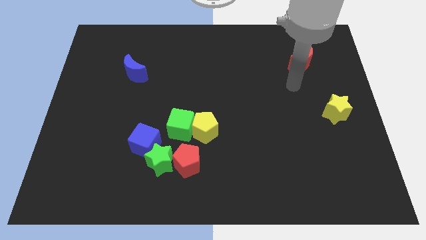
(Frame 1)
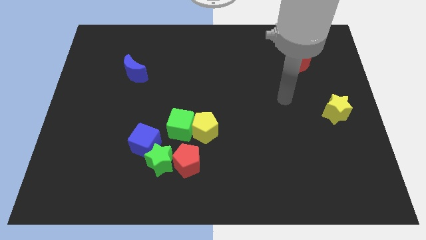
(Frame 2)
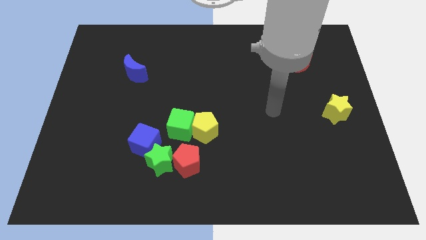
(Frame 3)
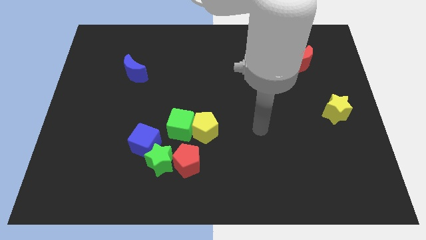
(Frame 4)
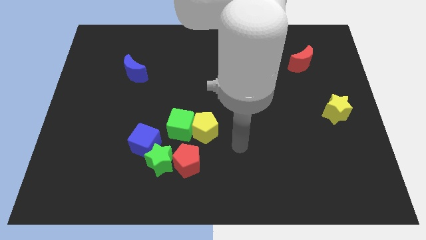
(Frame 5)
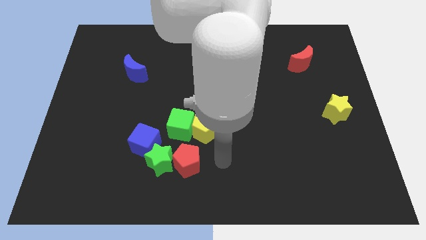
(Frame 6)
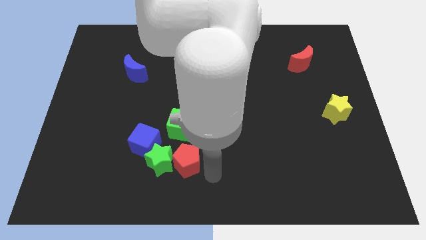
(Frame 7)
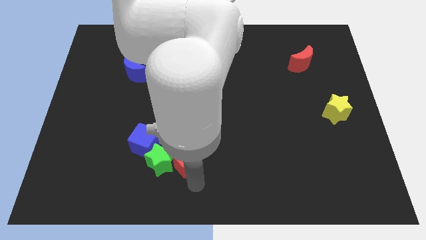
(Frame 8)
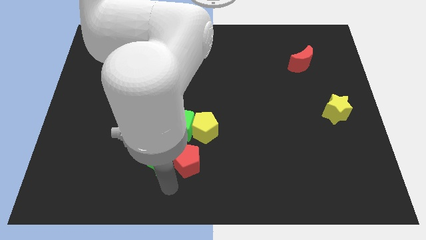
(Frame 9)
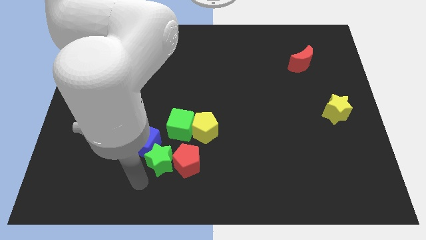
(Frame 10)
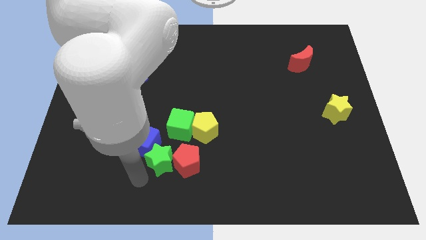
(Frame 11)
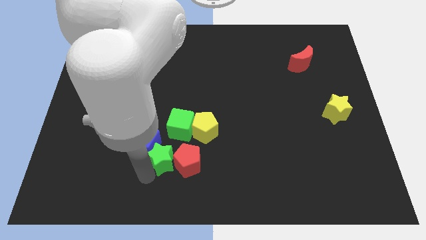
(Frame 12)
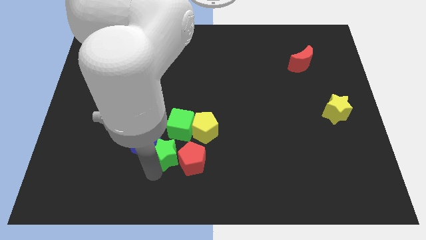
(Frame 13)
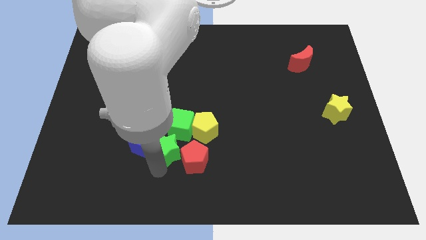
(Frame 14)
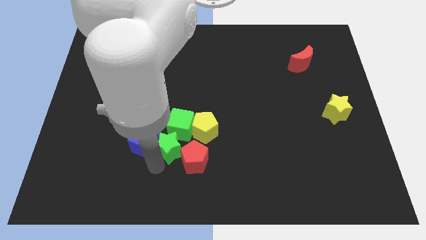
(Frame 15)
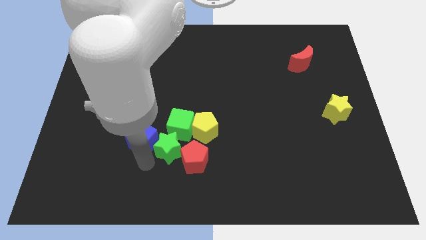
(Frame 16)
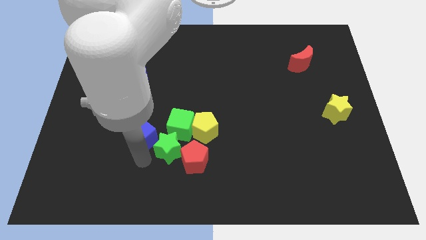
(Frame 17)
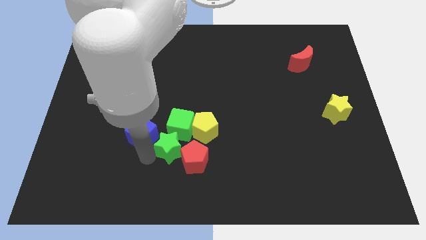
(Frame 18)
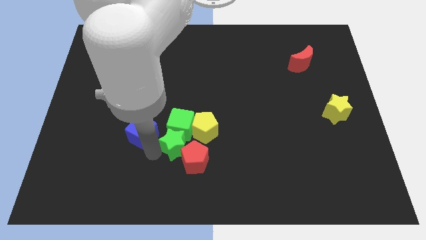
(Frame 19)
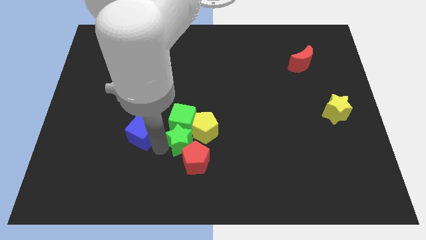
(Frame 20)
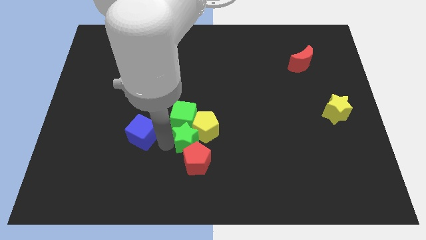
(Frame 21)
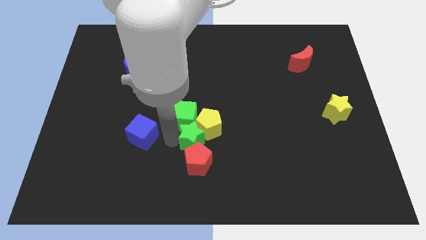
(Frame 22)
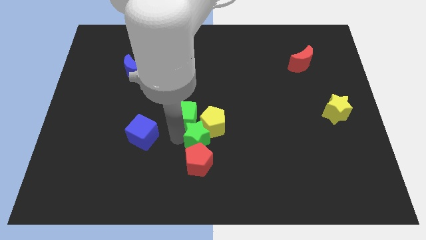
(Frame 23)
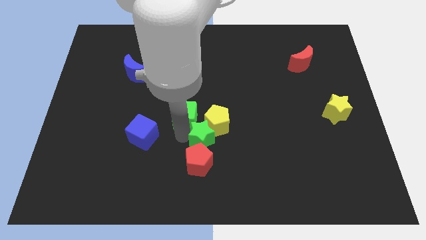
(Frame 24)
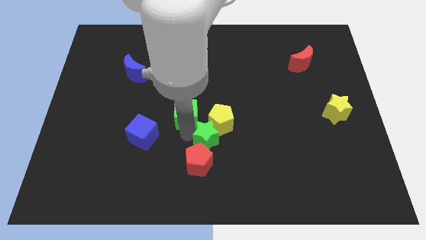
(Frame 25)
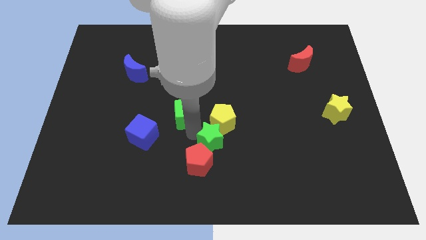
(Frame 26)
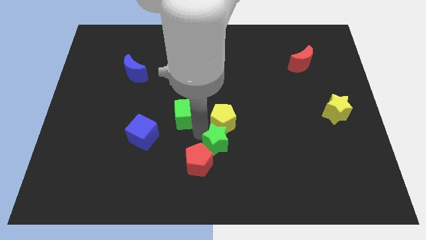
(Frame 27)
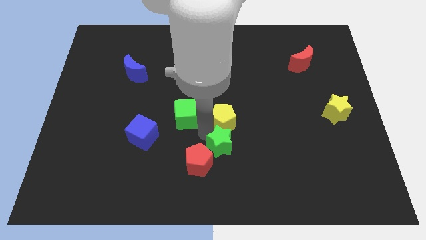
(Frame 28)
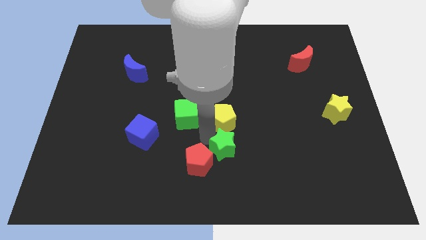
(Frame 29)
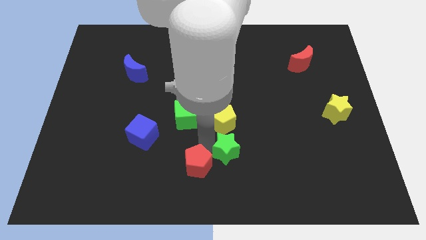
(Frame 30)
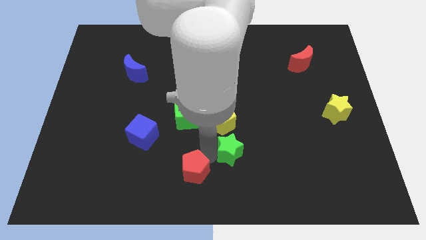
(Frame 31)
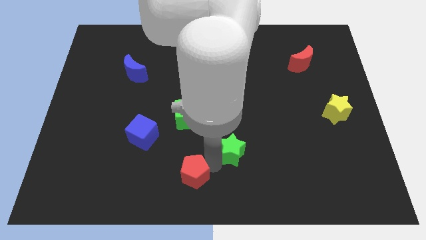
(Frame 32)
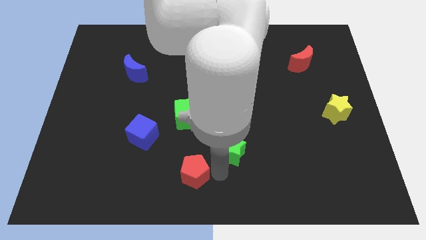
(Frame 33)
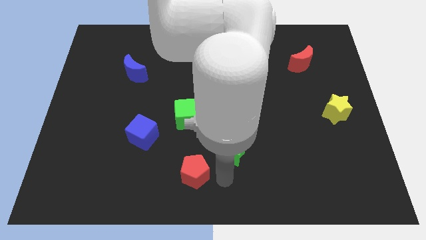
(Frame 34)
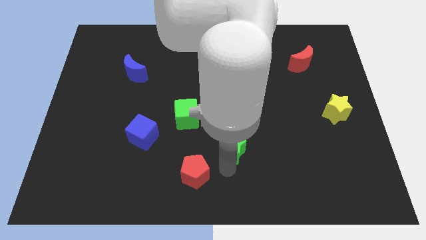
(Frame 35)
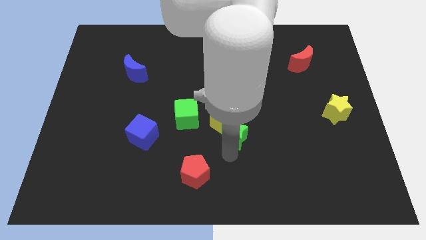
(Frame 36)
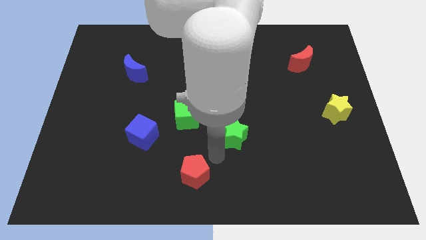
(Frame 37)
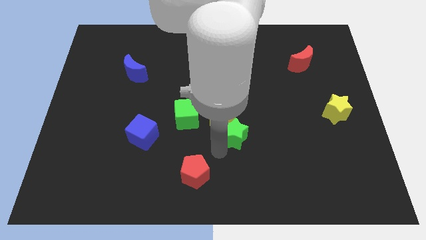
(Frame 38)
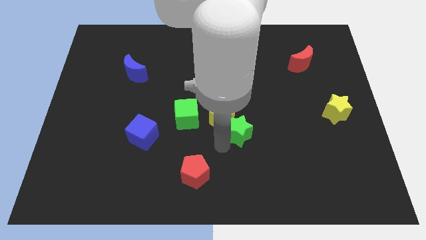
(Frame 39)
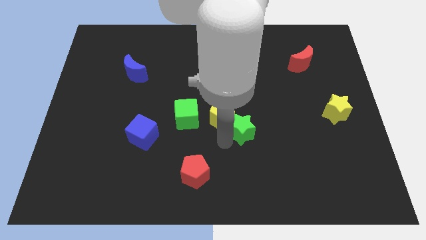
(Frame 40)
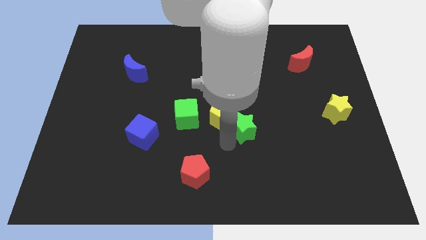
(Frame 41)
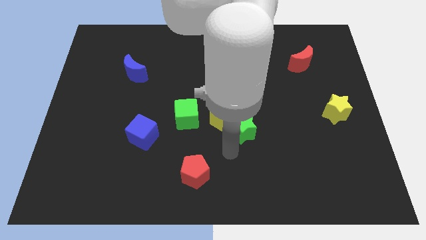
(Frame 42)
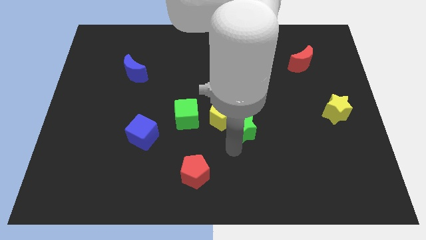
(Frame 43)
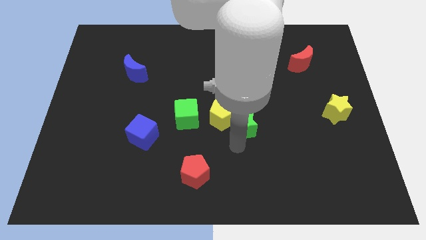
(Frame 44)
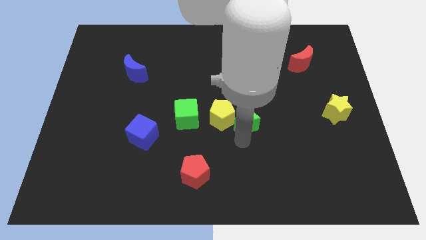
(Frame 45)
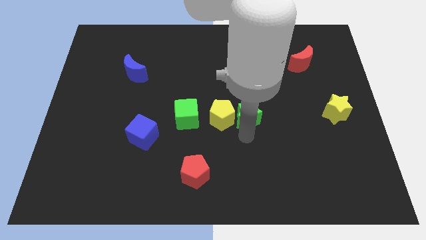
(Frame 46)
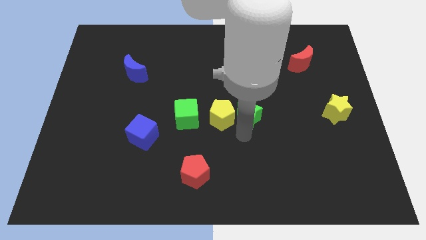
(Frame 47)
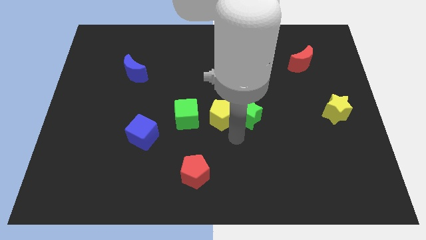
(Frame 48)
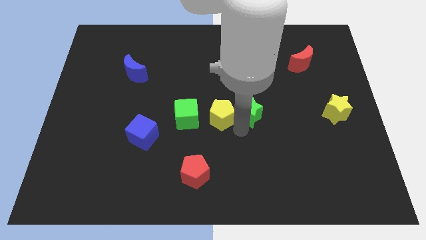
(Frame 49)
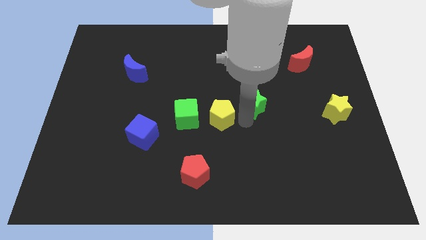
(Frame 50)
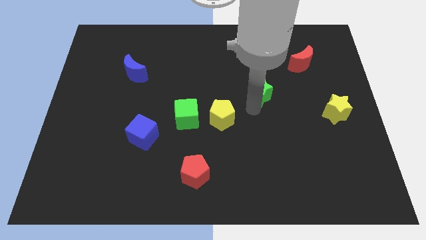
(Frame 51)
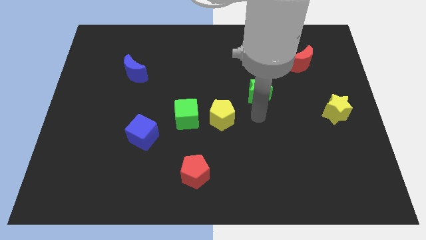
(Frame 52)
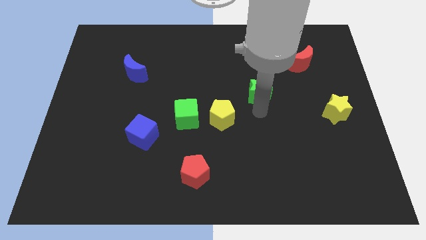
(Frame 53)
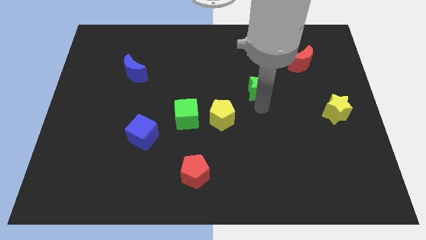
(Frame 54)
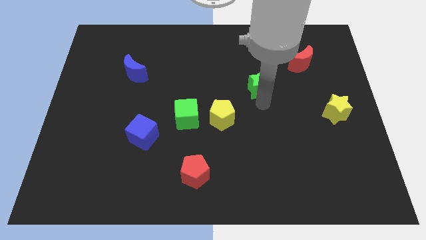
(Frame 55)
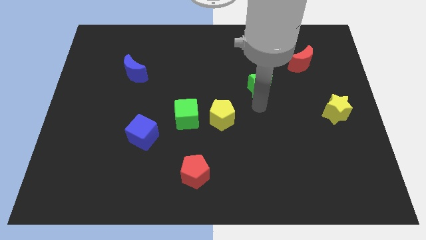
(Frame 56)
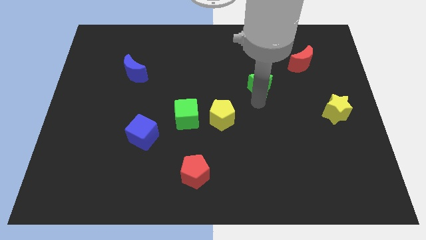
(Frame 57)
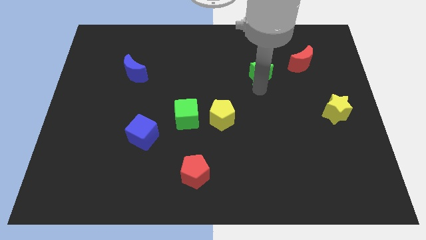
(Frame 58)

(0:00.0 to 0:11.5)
move the green star to the left side of the red moon

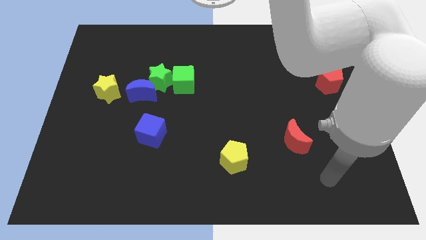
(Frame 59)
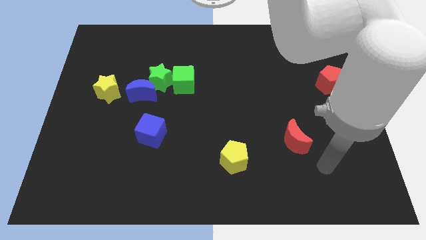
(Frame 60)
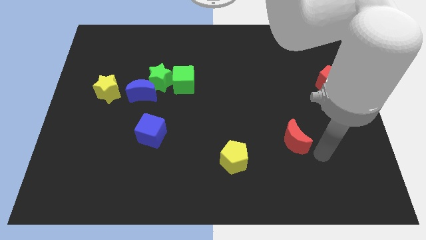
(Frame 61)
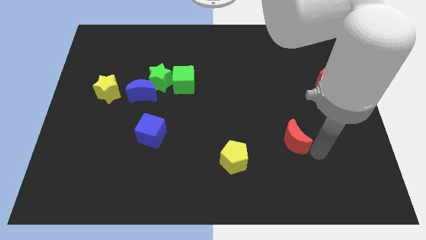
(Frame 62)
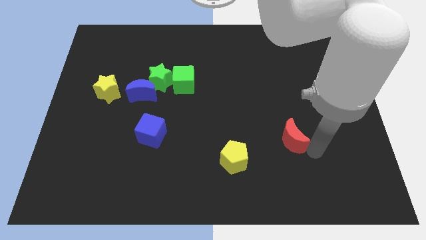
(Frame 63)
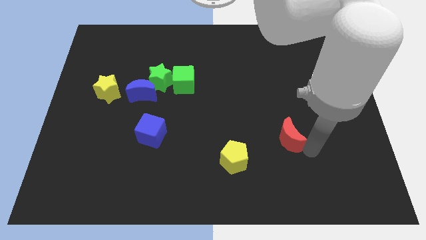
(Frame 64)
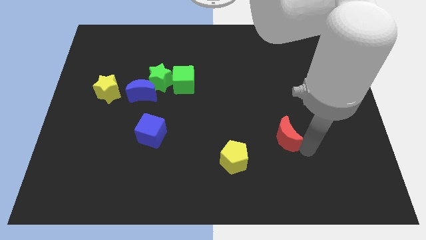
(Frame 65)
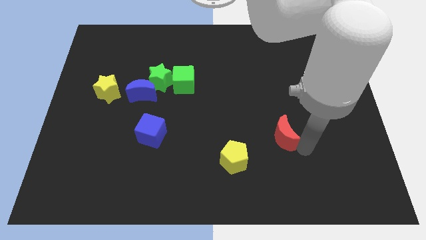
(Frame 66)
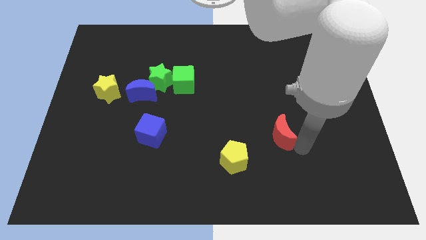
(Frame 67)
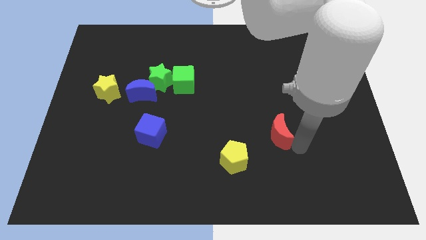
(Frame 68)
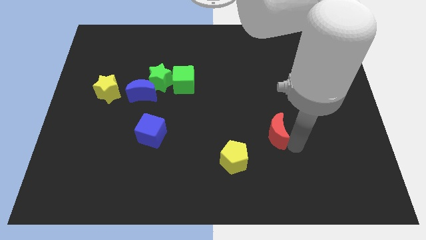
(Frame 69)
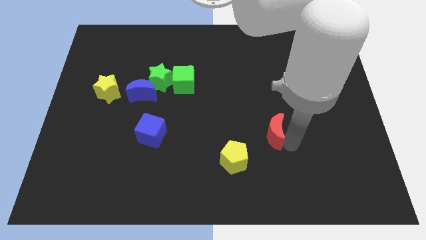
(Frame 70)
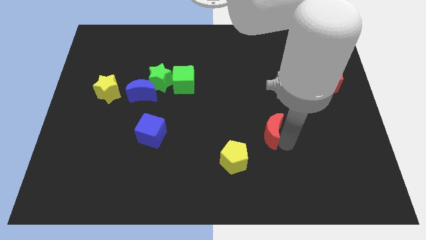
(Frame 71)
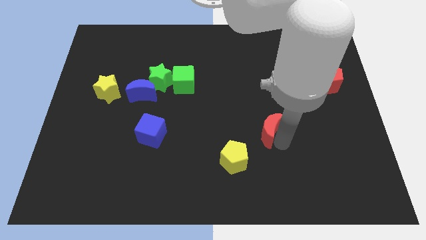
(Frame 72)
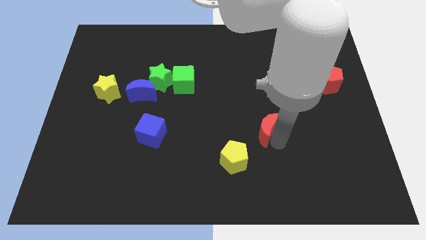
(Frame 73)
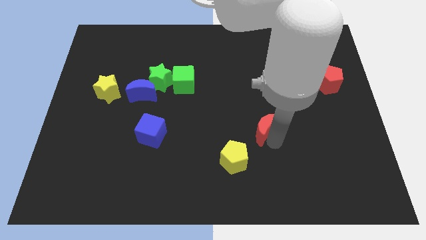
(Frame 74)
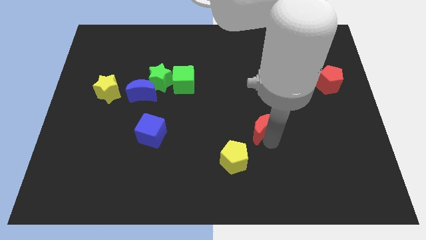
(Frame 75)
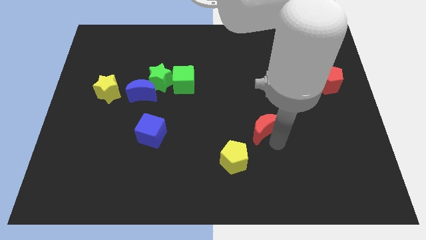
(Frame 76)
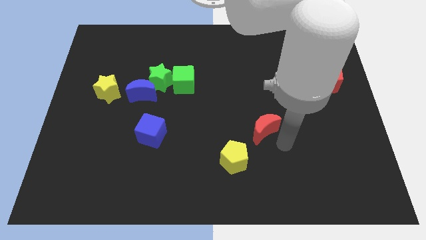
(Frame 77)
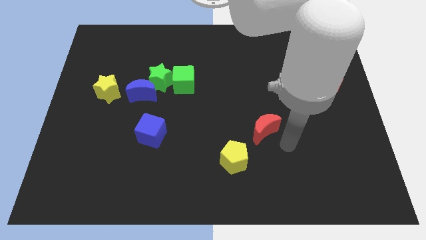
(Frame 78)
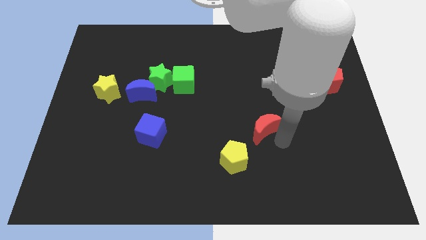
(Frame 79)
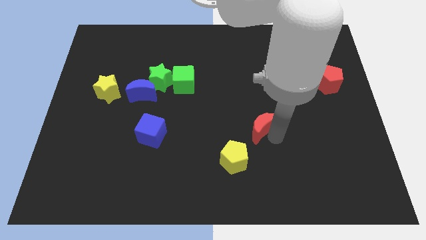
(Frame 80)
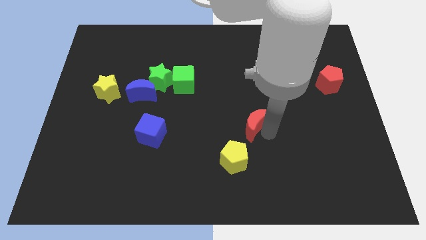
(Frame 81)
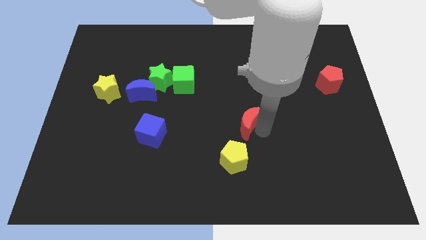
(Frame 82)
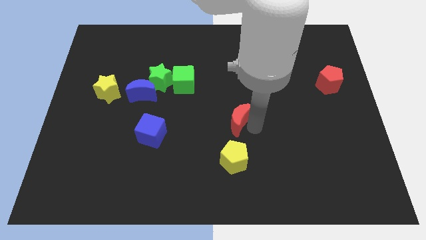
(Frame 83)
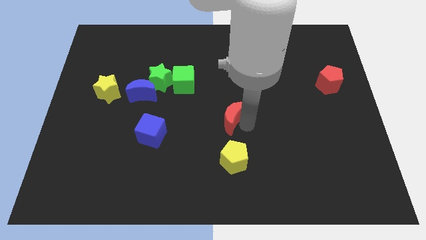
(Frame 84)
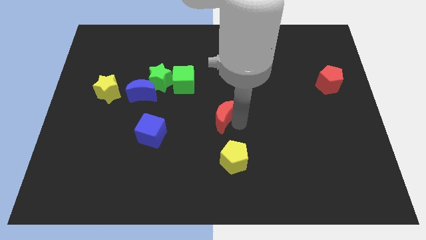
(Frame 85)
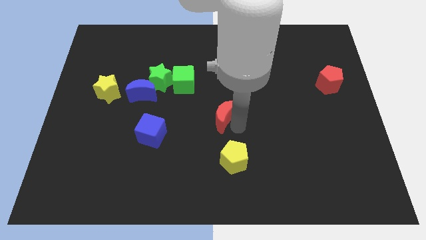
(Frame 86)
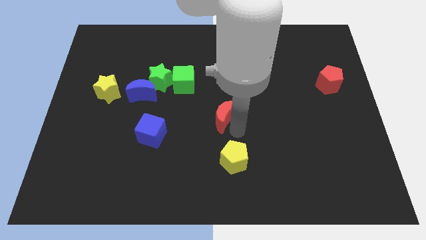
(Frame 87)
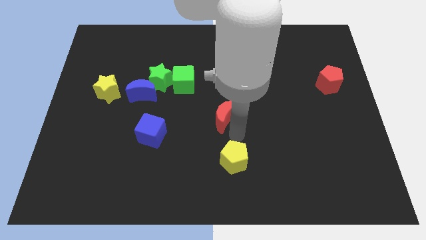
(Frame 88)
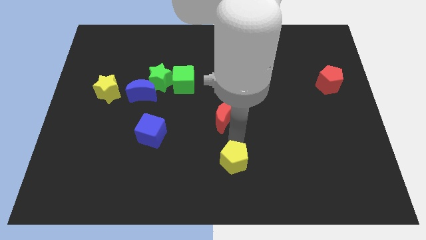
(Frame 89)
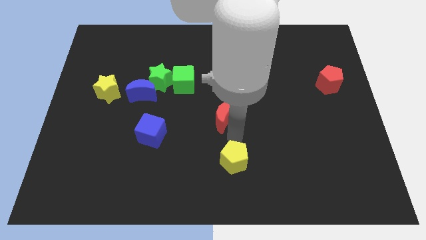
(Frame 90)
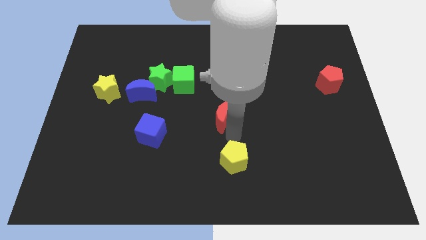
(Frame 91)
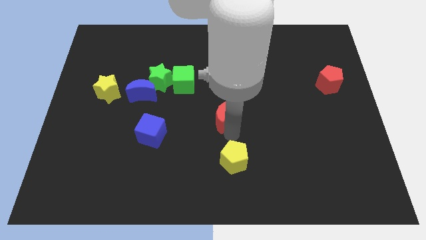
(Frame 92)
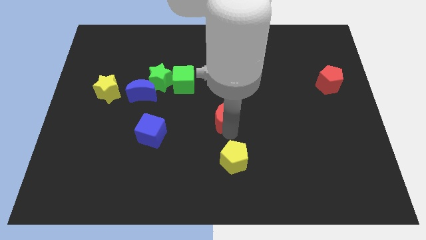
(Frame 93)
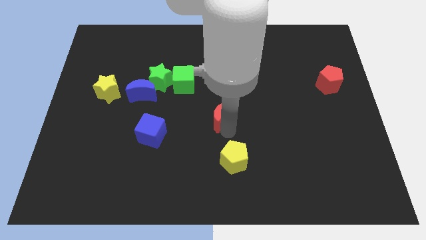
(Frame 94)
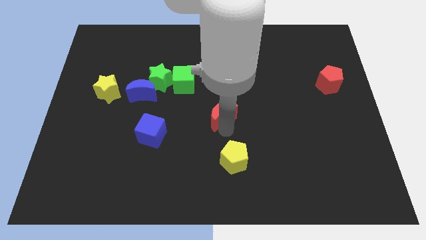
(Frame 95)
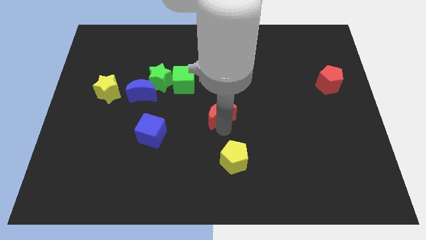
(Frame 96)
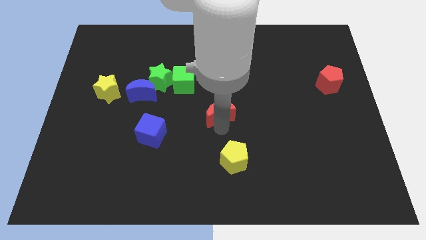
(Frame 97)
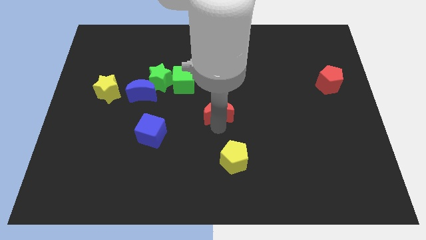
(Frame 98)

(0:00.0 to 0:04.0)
push the red moon diagonally down and to the right of the green cube
